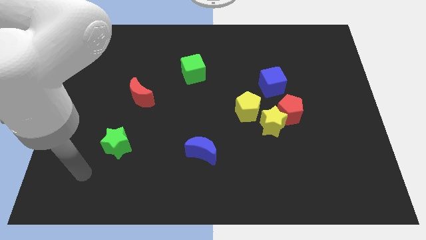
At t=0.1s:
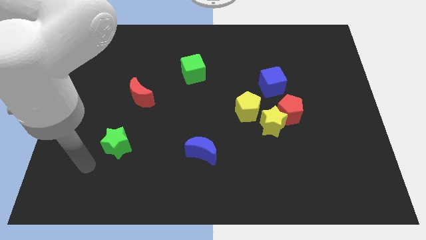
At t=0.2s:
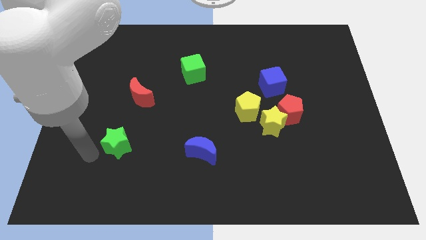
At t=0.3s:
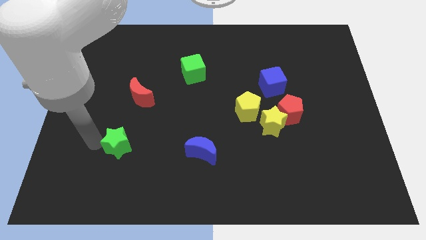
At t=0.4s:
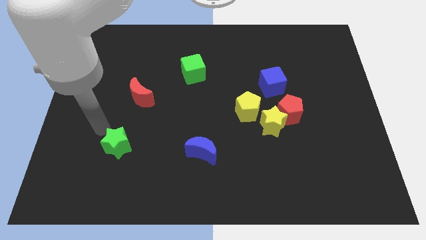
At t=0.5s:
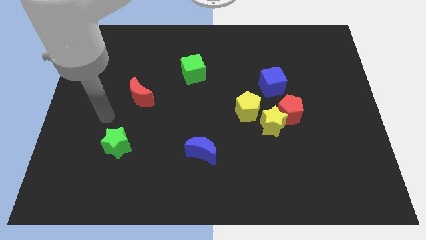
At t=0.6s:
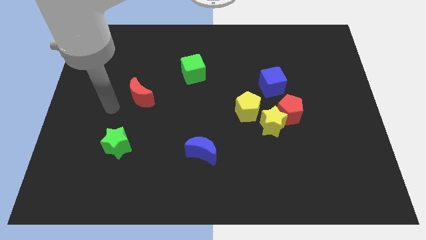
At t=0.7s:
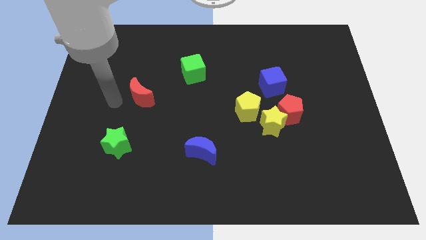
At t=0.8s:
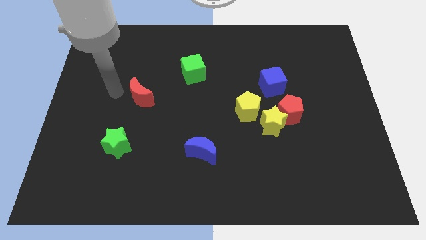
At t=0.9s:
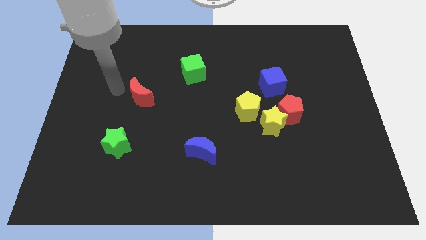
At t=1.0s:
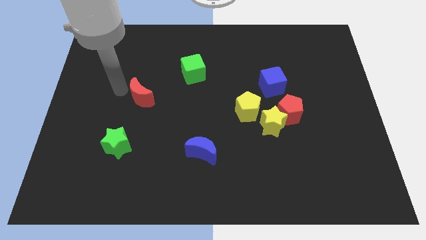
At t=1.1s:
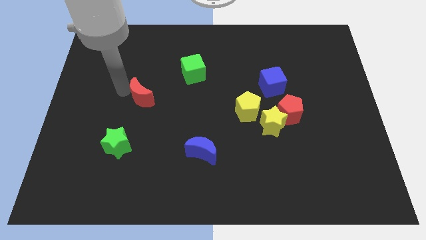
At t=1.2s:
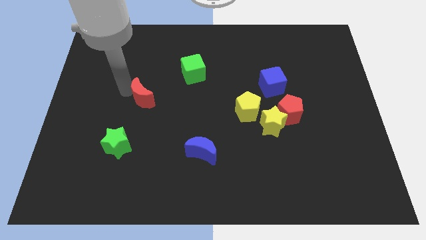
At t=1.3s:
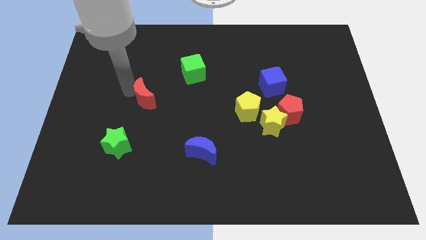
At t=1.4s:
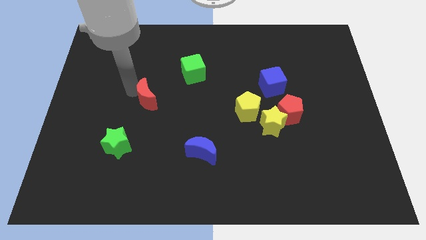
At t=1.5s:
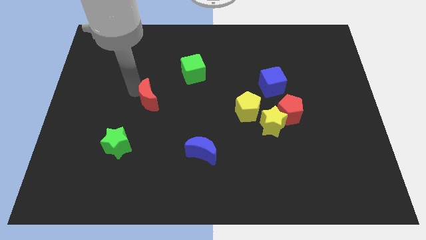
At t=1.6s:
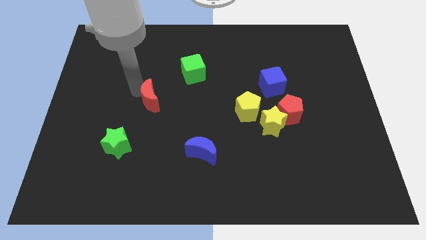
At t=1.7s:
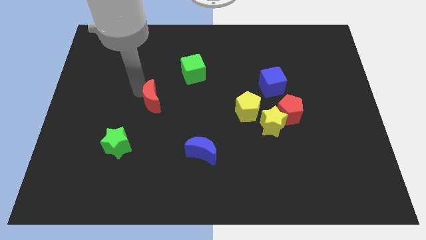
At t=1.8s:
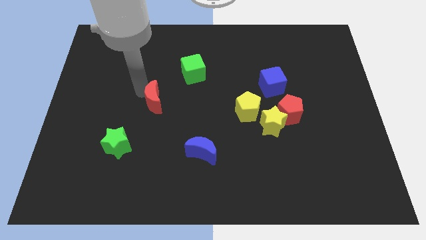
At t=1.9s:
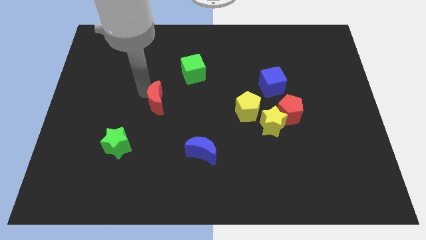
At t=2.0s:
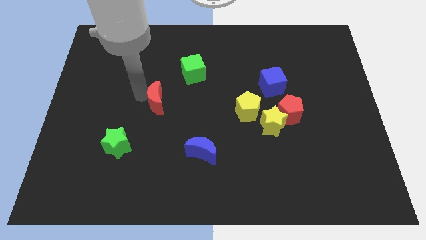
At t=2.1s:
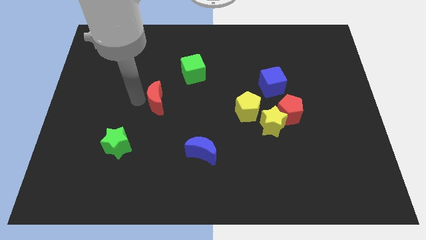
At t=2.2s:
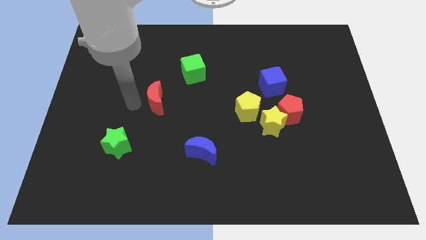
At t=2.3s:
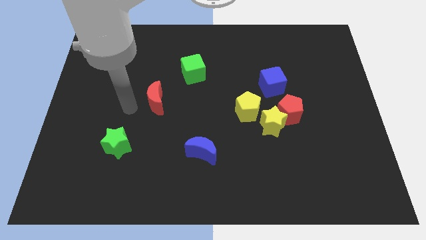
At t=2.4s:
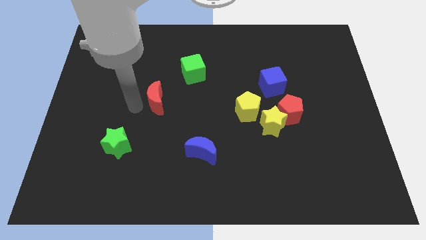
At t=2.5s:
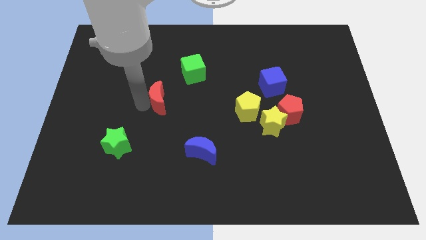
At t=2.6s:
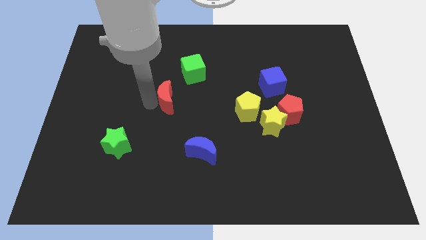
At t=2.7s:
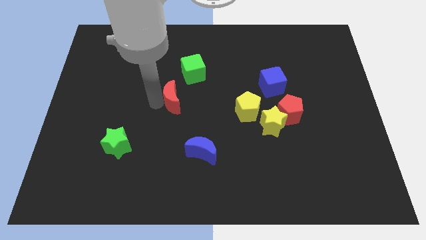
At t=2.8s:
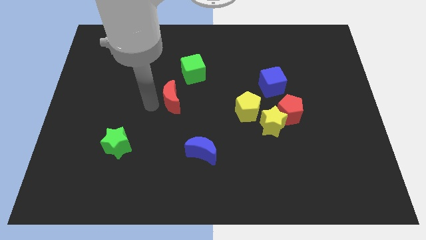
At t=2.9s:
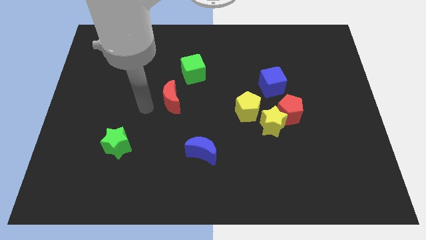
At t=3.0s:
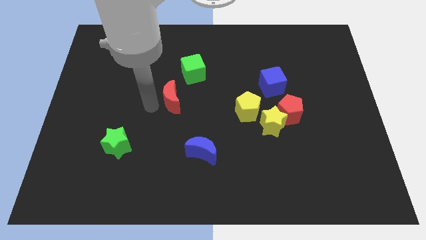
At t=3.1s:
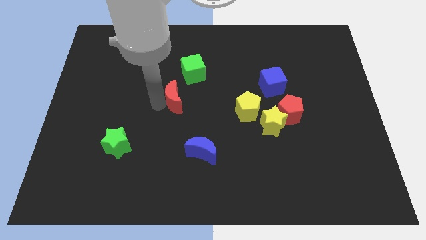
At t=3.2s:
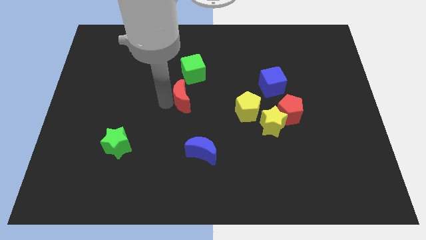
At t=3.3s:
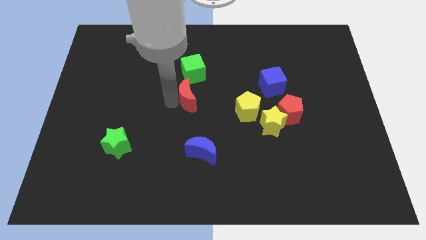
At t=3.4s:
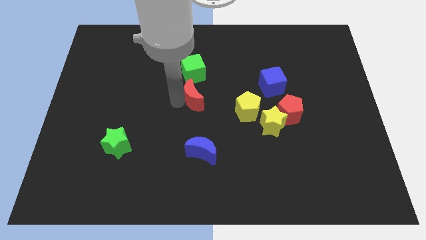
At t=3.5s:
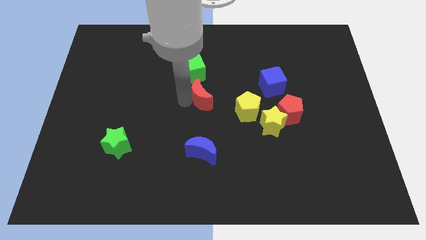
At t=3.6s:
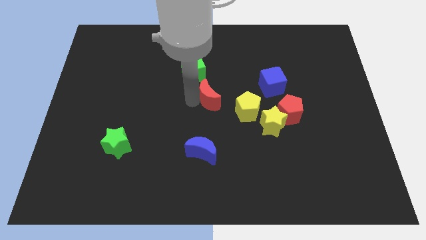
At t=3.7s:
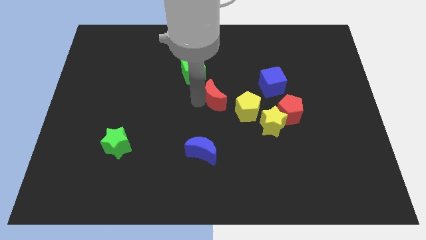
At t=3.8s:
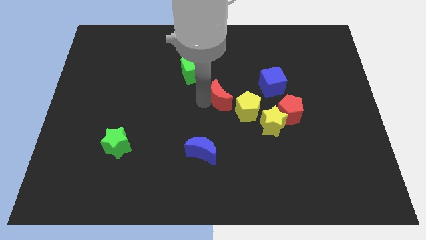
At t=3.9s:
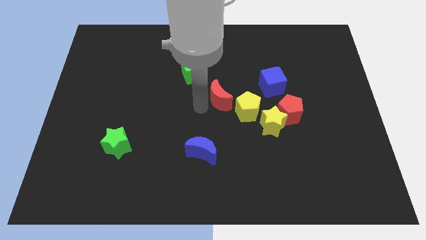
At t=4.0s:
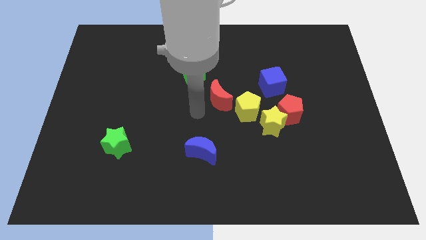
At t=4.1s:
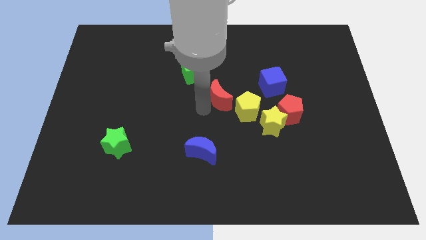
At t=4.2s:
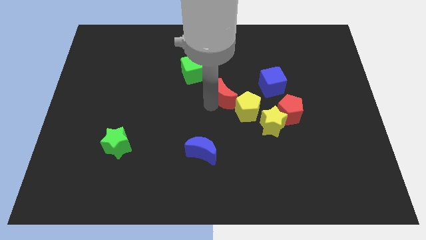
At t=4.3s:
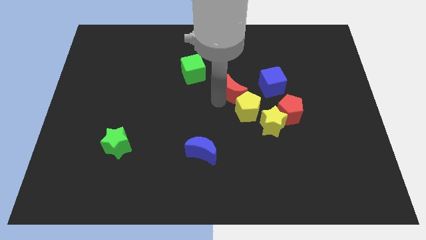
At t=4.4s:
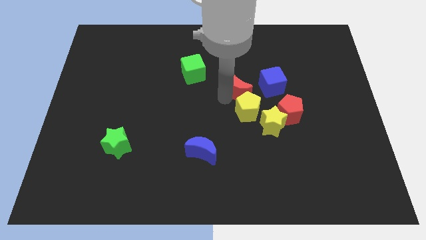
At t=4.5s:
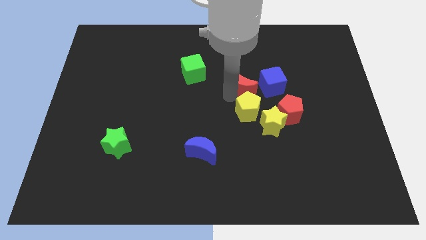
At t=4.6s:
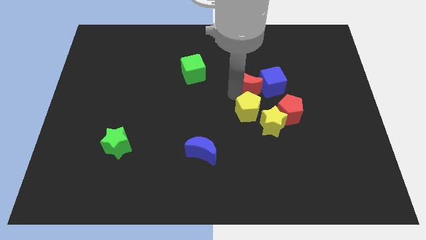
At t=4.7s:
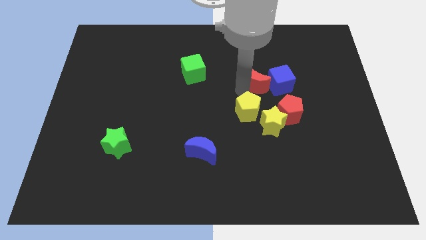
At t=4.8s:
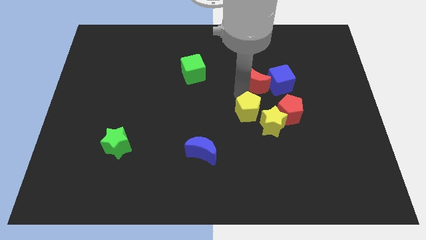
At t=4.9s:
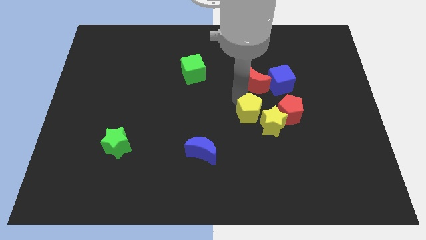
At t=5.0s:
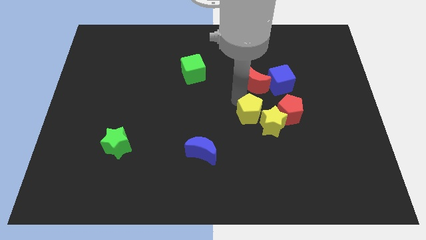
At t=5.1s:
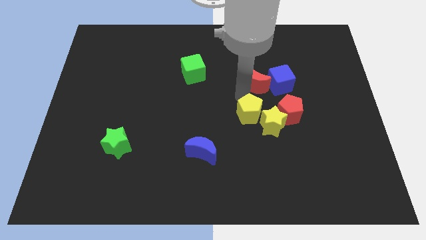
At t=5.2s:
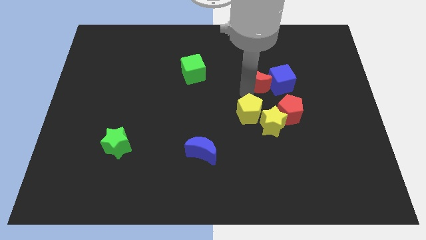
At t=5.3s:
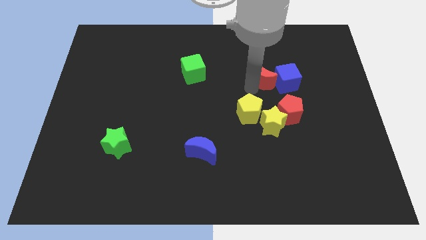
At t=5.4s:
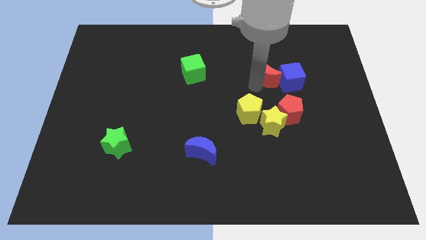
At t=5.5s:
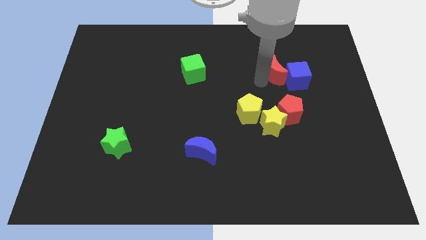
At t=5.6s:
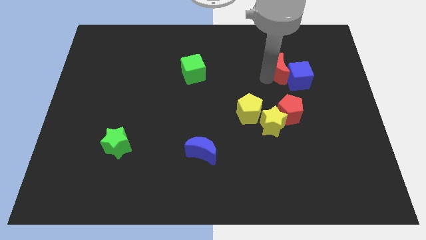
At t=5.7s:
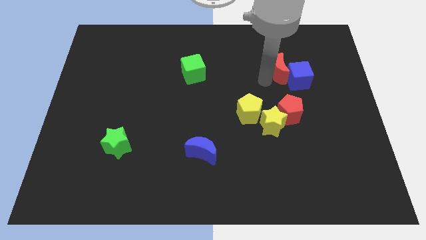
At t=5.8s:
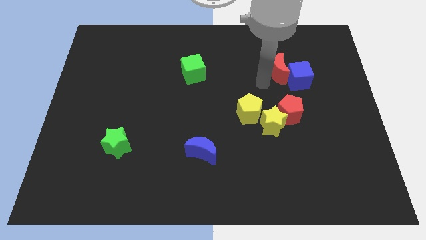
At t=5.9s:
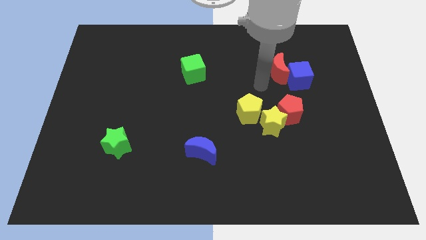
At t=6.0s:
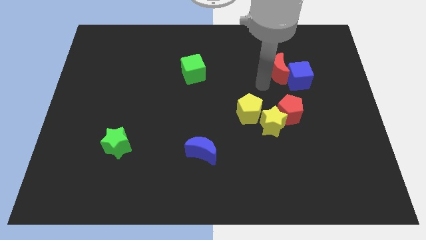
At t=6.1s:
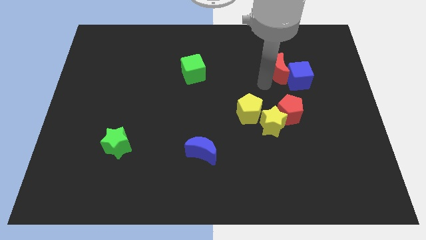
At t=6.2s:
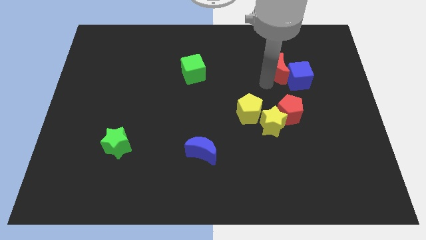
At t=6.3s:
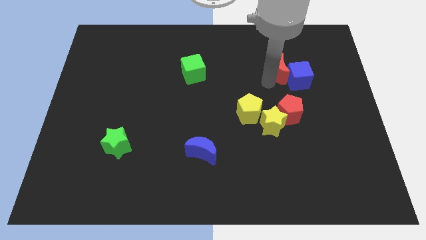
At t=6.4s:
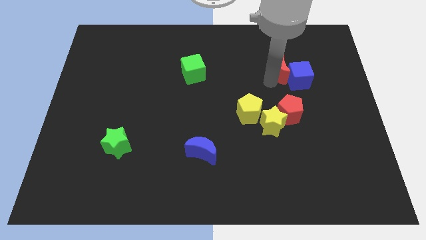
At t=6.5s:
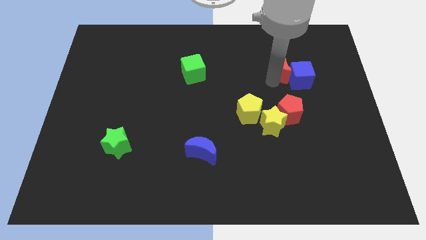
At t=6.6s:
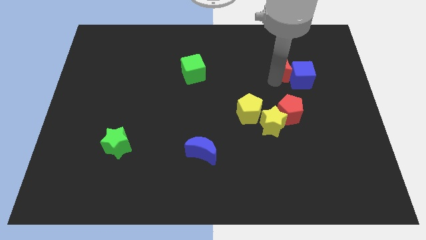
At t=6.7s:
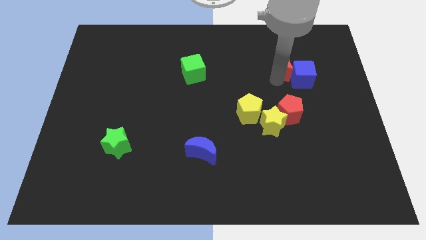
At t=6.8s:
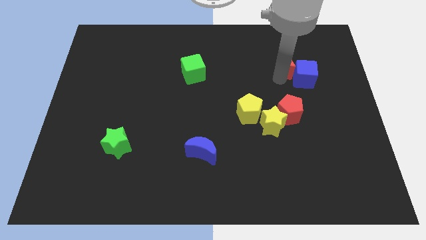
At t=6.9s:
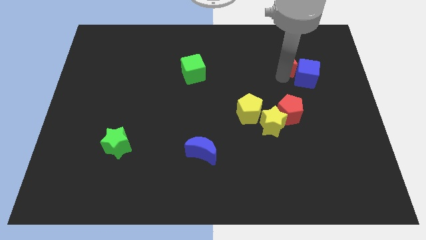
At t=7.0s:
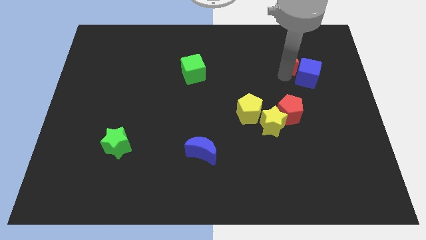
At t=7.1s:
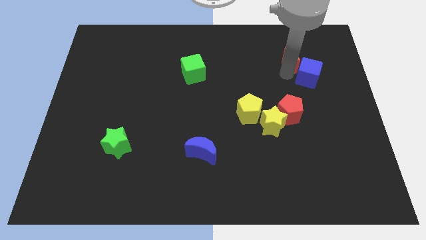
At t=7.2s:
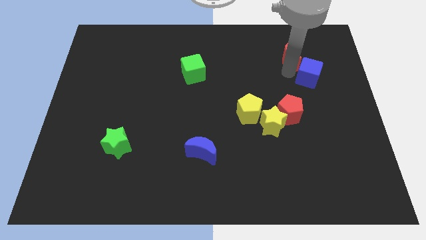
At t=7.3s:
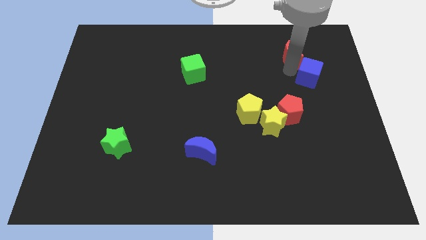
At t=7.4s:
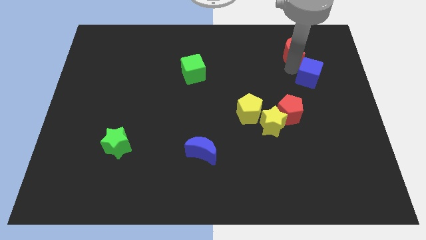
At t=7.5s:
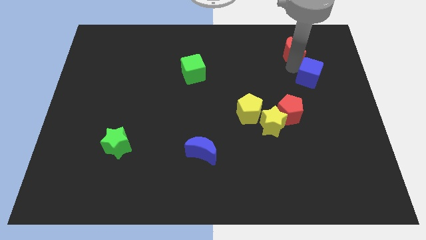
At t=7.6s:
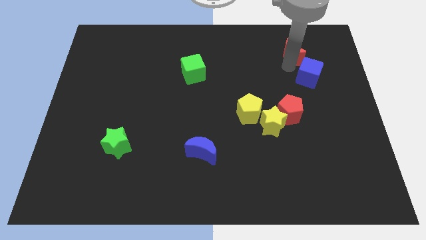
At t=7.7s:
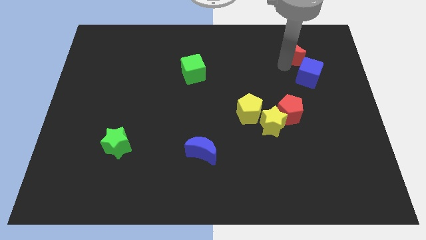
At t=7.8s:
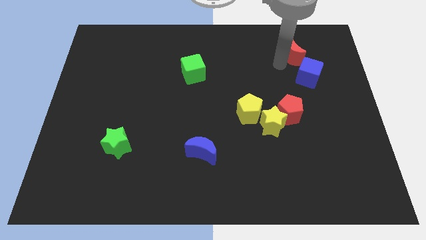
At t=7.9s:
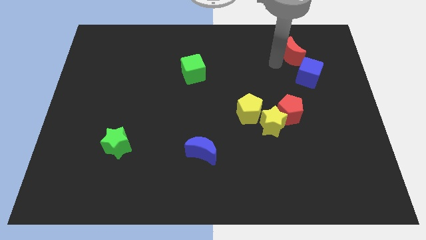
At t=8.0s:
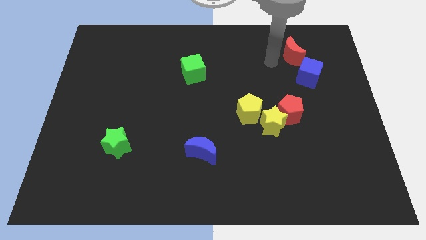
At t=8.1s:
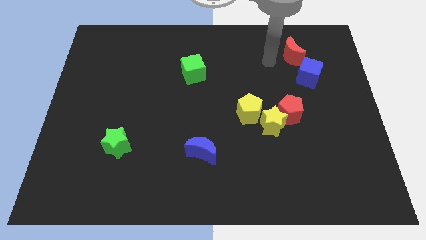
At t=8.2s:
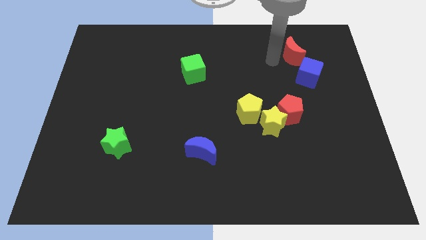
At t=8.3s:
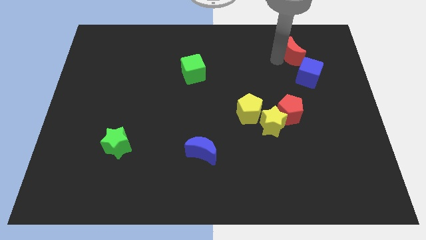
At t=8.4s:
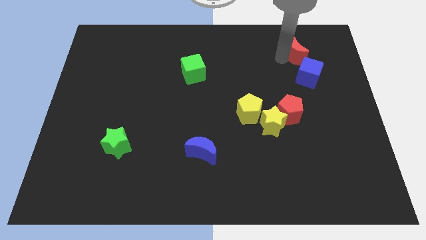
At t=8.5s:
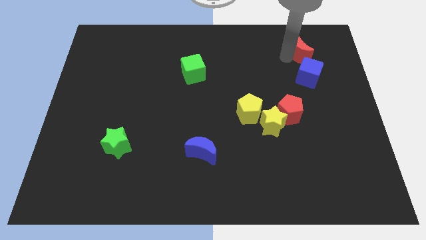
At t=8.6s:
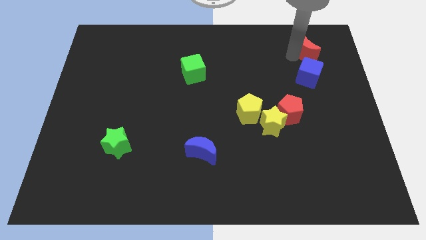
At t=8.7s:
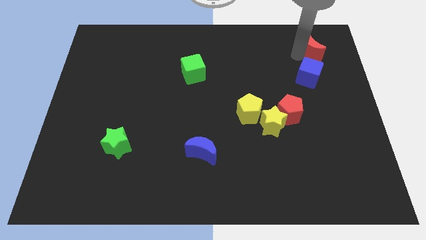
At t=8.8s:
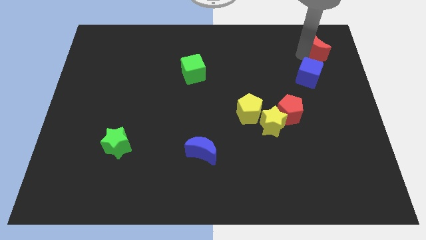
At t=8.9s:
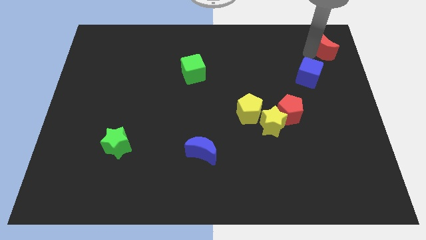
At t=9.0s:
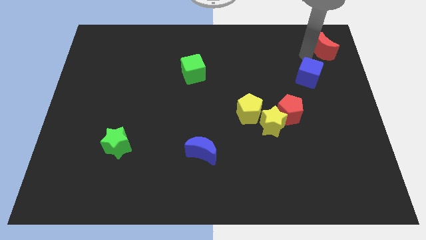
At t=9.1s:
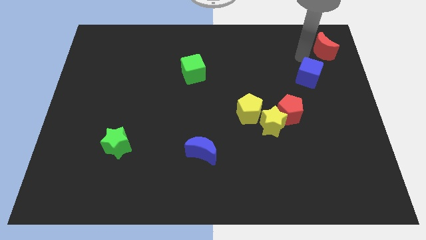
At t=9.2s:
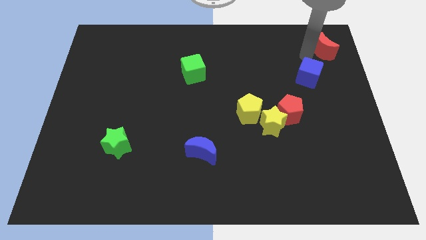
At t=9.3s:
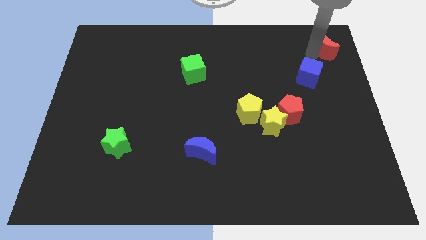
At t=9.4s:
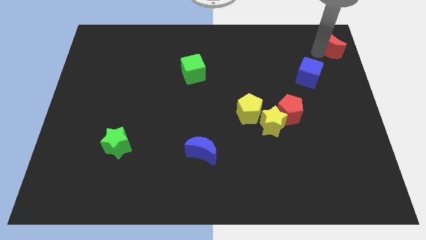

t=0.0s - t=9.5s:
slide the red moon to the top right corner
